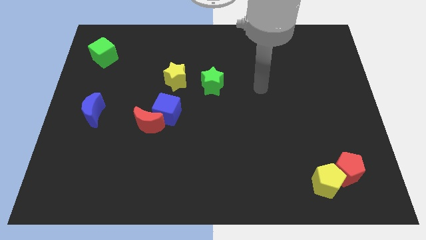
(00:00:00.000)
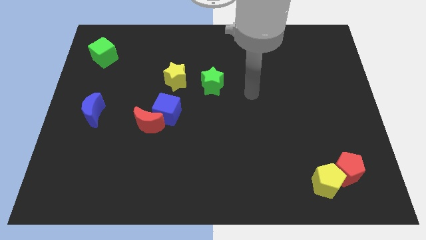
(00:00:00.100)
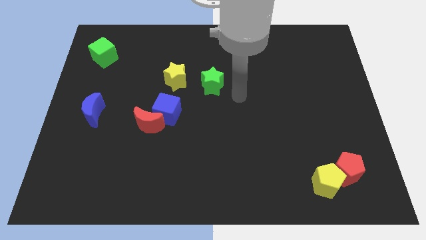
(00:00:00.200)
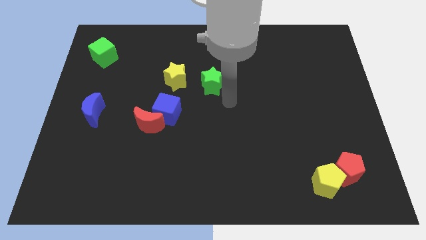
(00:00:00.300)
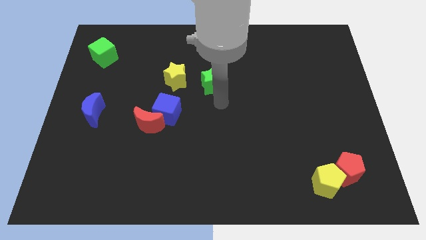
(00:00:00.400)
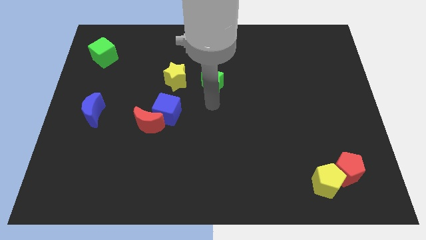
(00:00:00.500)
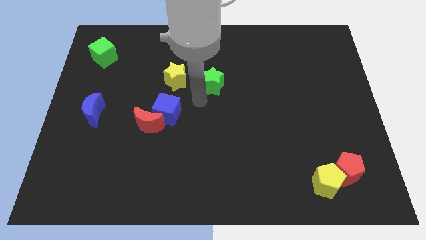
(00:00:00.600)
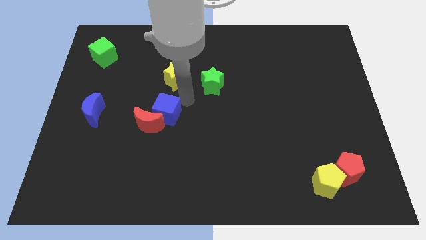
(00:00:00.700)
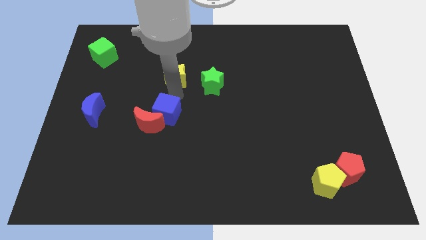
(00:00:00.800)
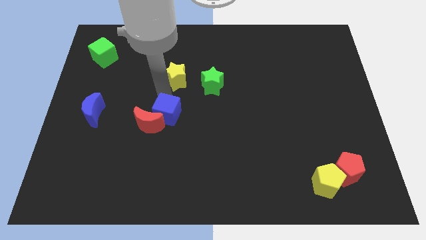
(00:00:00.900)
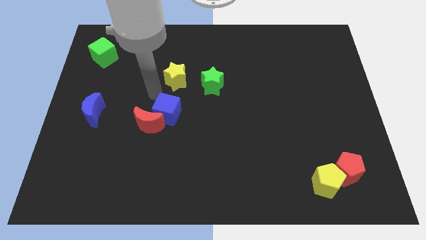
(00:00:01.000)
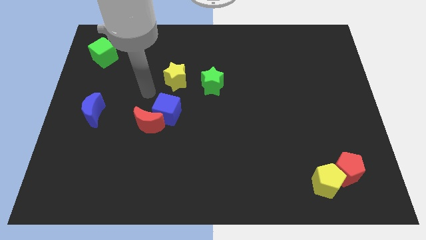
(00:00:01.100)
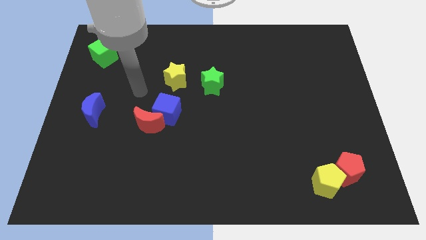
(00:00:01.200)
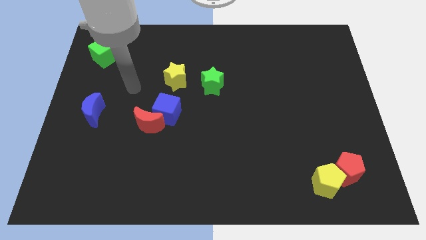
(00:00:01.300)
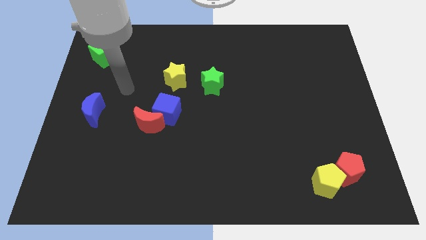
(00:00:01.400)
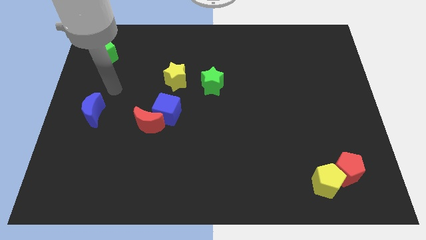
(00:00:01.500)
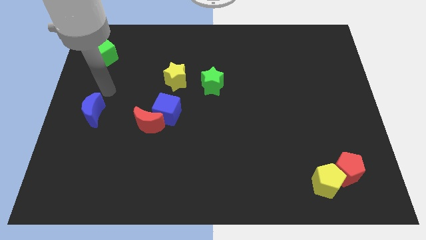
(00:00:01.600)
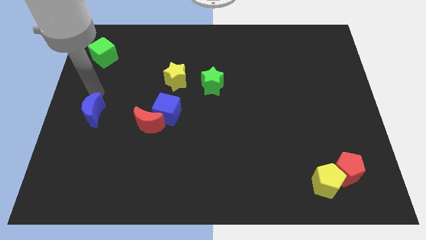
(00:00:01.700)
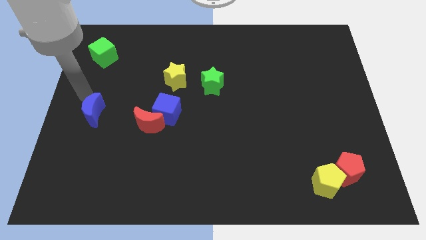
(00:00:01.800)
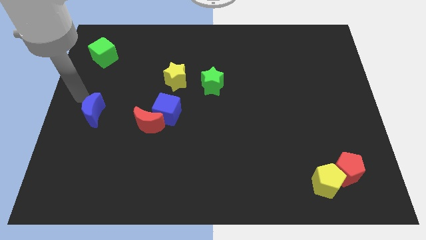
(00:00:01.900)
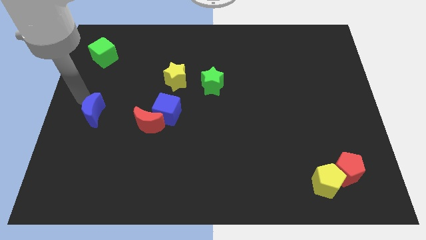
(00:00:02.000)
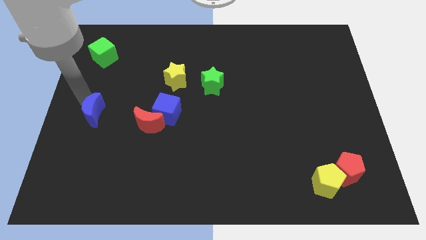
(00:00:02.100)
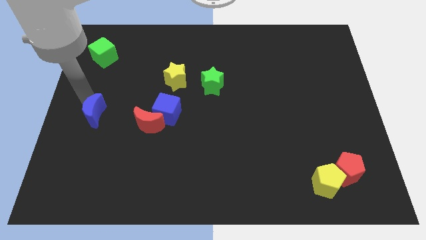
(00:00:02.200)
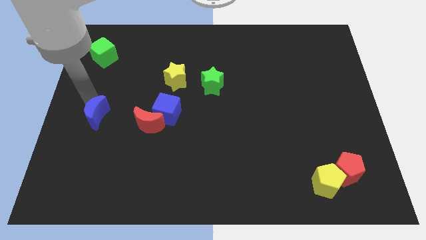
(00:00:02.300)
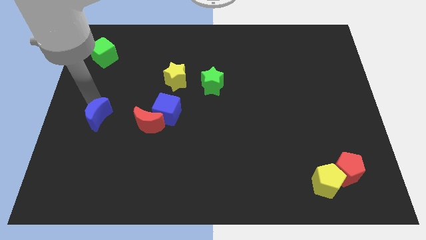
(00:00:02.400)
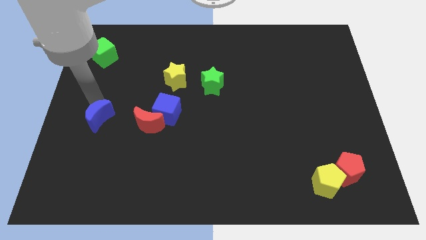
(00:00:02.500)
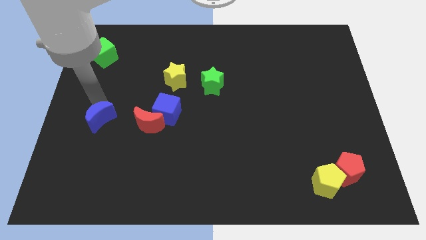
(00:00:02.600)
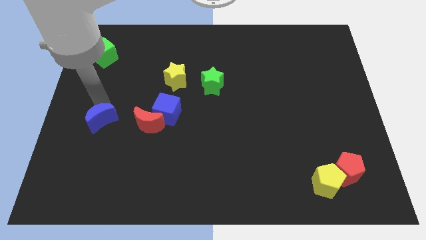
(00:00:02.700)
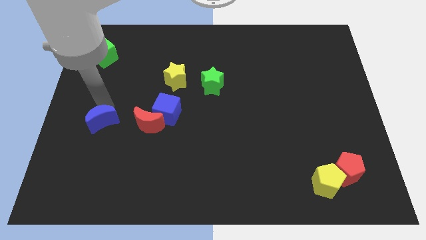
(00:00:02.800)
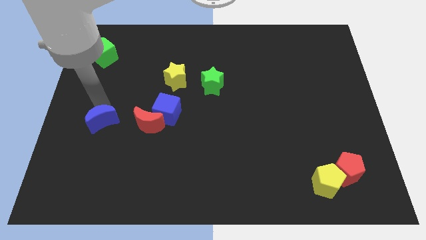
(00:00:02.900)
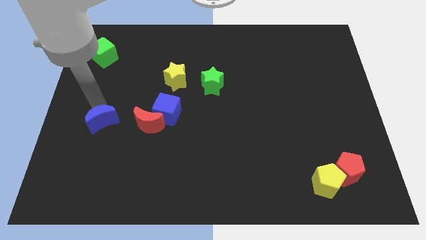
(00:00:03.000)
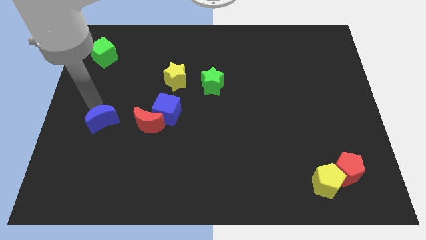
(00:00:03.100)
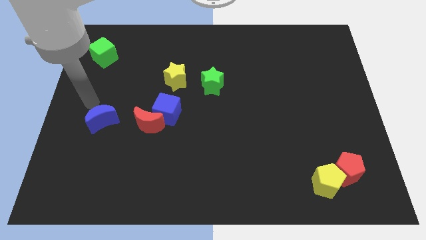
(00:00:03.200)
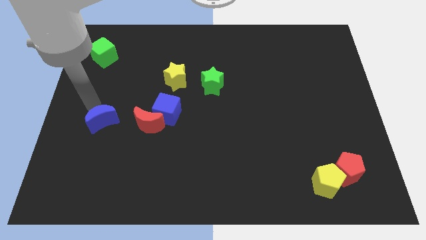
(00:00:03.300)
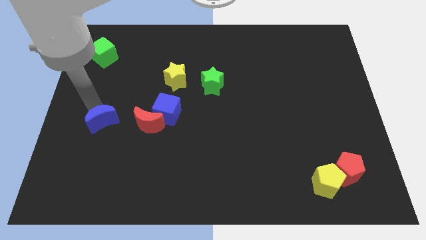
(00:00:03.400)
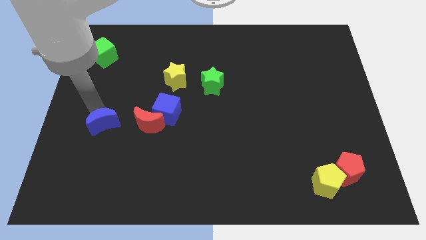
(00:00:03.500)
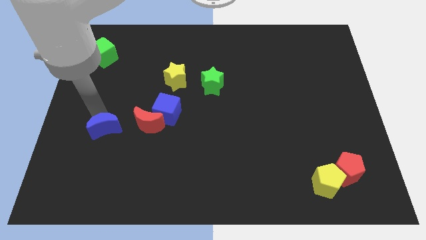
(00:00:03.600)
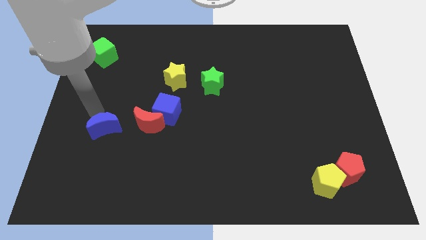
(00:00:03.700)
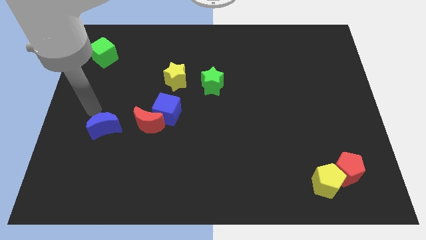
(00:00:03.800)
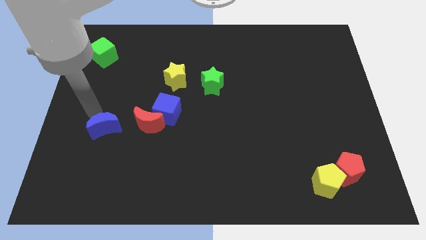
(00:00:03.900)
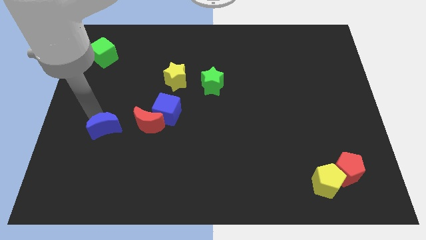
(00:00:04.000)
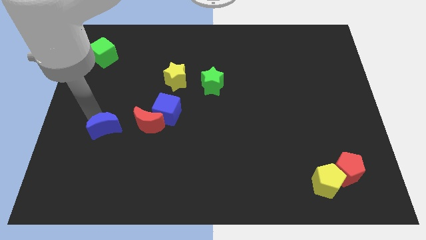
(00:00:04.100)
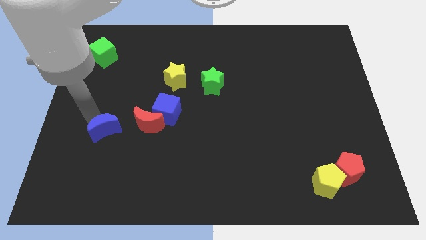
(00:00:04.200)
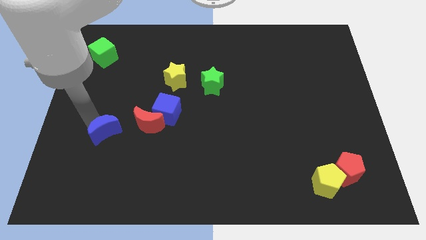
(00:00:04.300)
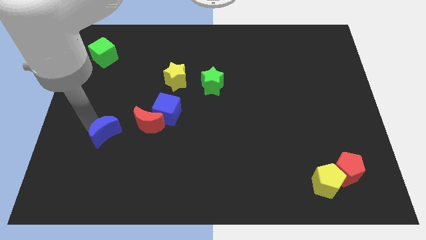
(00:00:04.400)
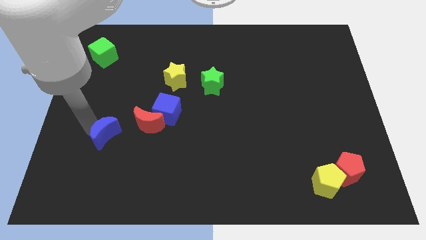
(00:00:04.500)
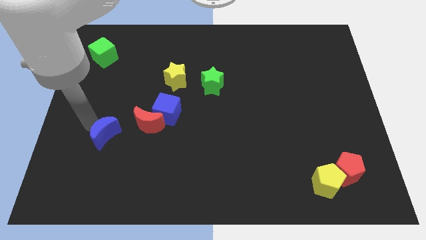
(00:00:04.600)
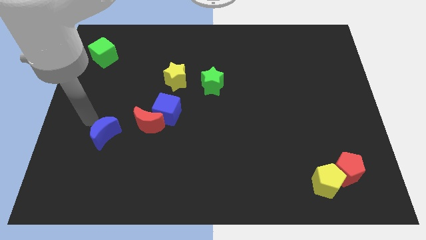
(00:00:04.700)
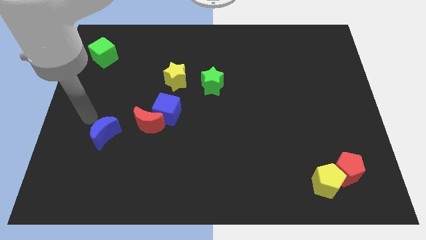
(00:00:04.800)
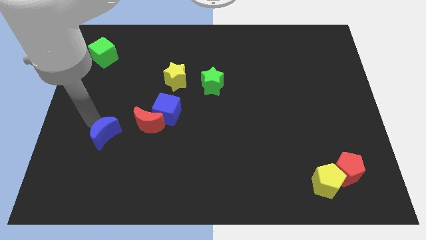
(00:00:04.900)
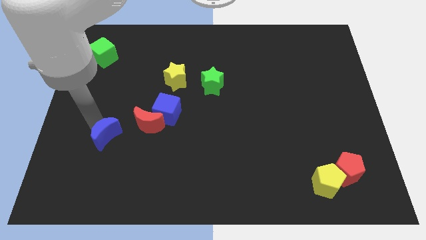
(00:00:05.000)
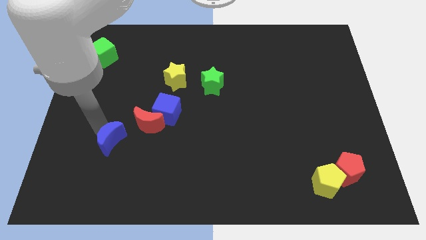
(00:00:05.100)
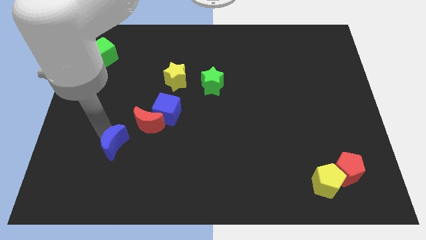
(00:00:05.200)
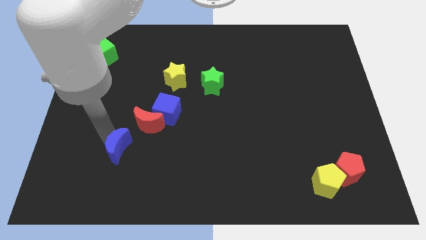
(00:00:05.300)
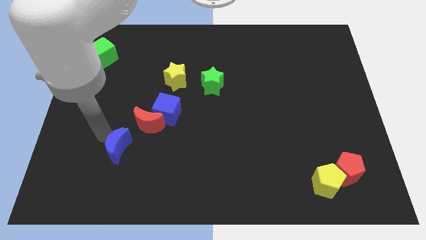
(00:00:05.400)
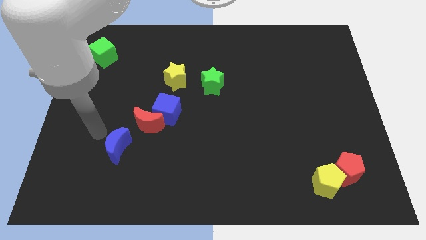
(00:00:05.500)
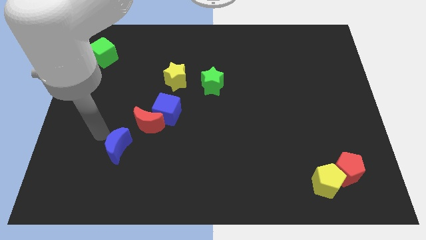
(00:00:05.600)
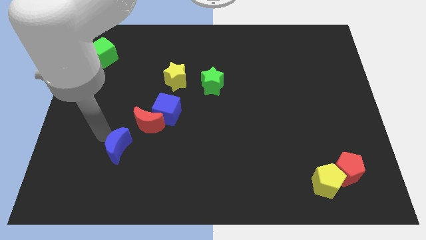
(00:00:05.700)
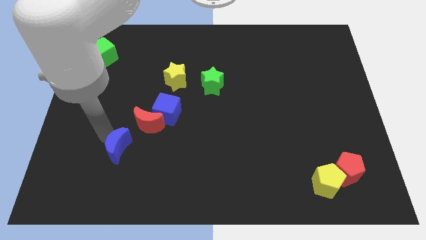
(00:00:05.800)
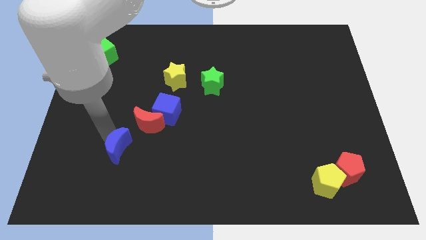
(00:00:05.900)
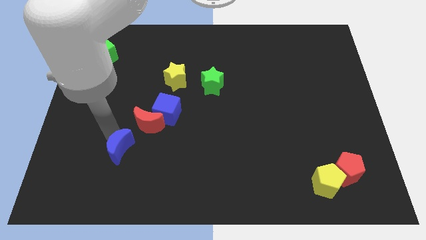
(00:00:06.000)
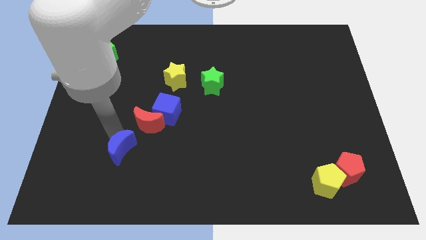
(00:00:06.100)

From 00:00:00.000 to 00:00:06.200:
move the blue moon below the red moon
